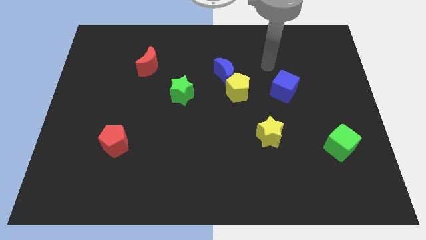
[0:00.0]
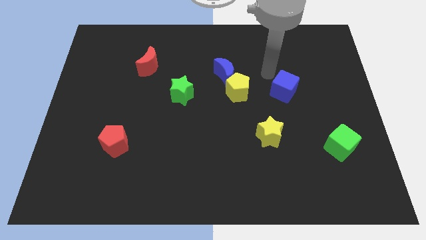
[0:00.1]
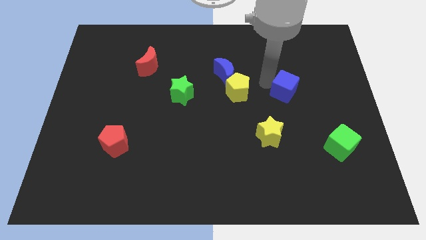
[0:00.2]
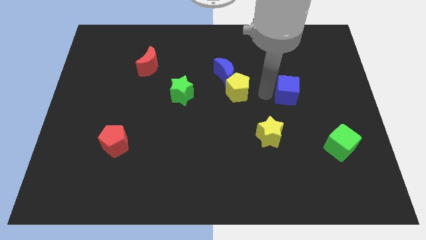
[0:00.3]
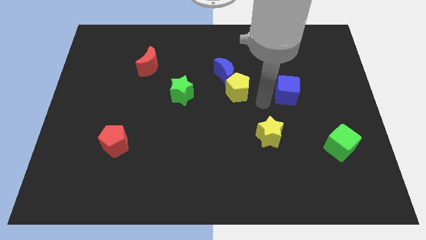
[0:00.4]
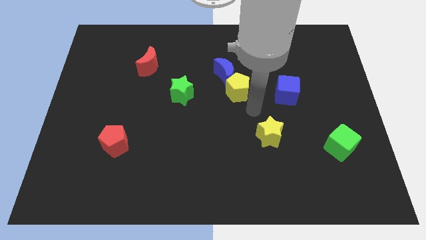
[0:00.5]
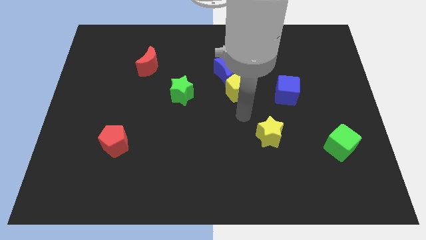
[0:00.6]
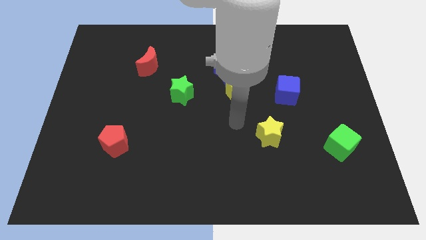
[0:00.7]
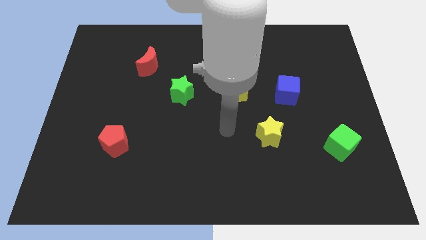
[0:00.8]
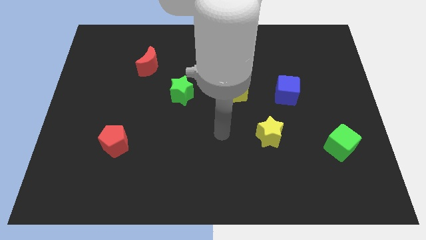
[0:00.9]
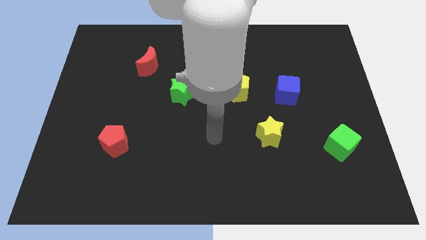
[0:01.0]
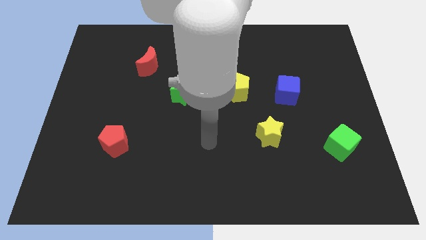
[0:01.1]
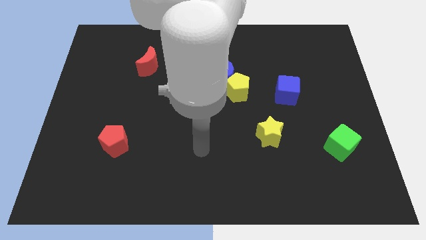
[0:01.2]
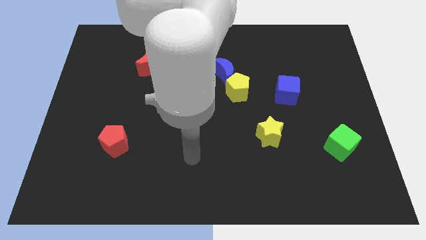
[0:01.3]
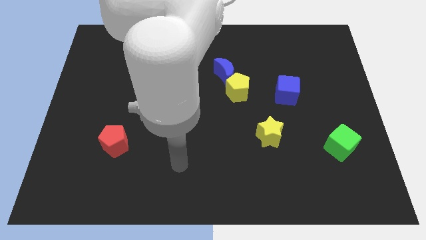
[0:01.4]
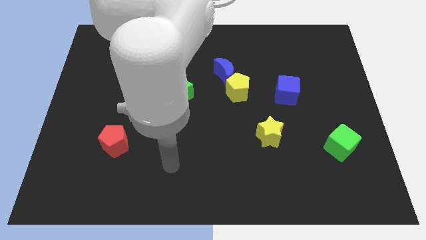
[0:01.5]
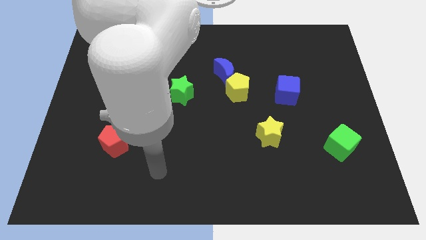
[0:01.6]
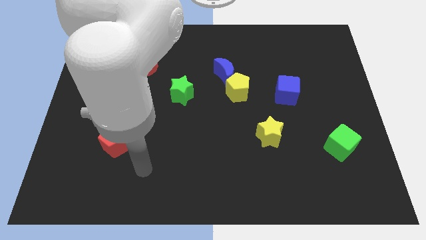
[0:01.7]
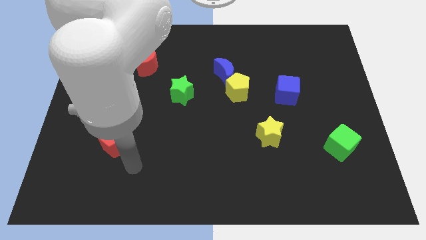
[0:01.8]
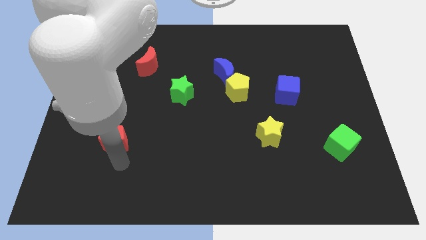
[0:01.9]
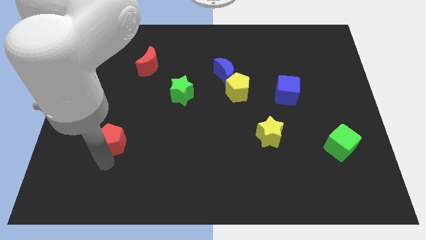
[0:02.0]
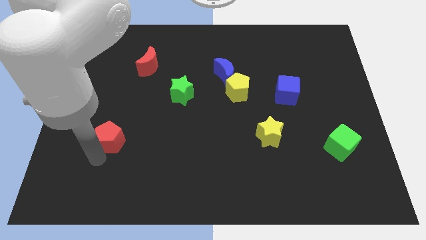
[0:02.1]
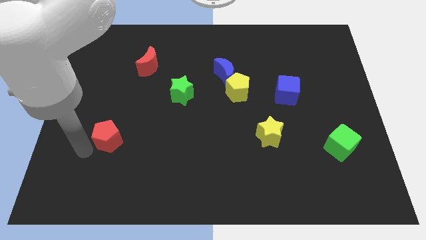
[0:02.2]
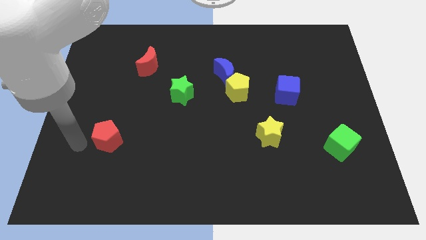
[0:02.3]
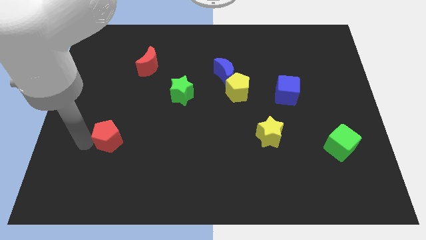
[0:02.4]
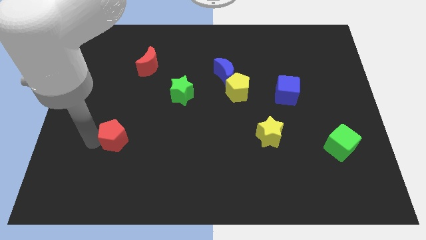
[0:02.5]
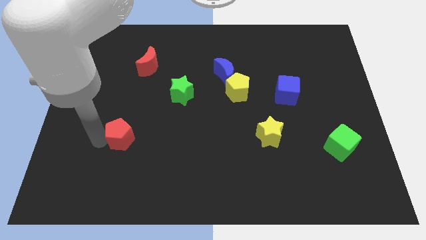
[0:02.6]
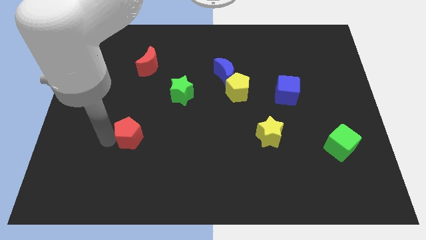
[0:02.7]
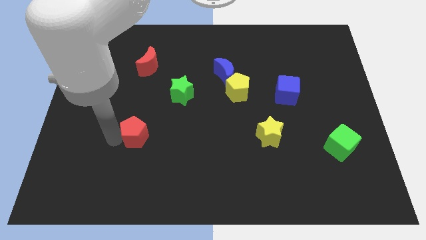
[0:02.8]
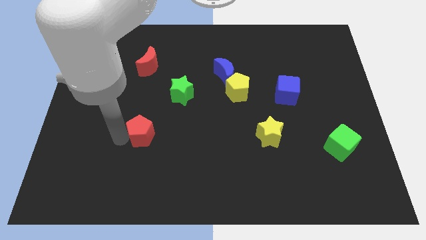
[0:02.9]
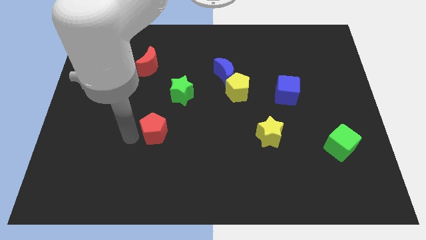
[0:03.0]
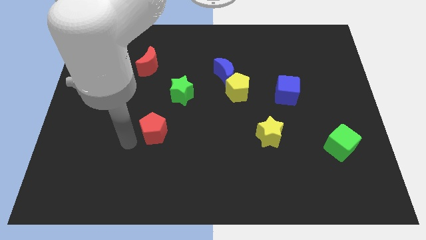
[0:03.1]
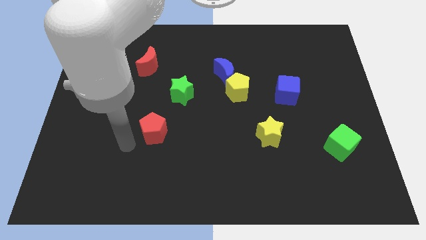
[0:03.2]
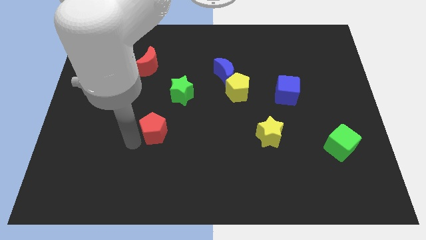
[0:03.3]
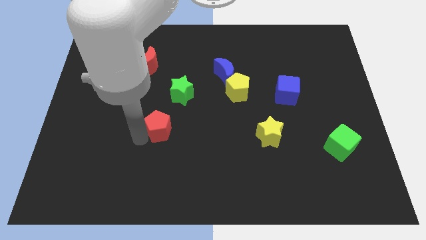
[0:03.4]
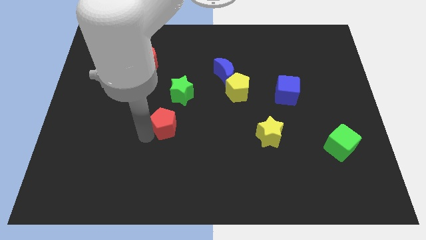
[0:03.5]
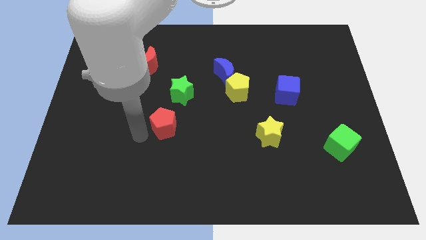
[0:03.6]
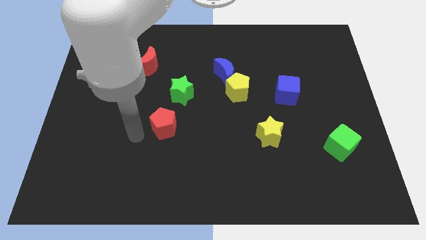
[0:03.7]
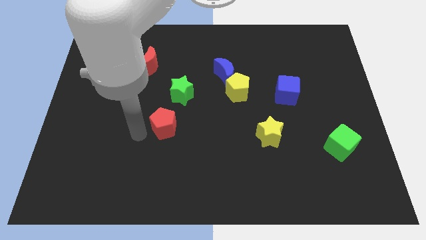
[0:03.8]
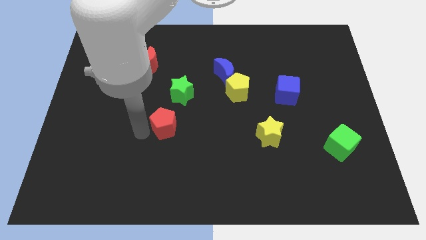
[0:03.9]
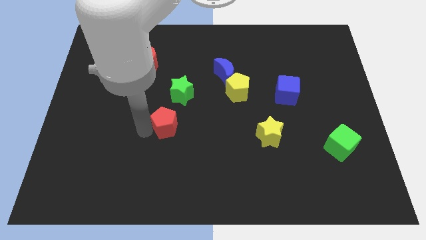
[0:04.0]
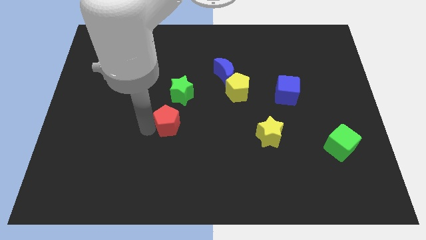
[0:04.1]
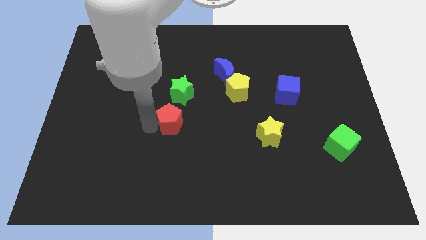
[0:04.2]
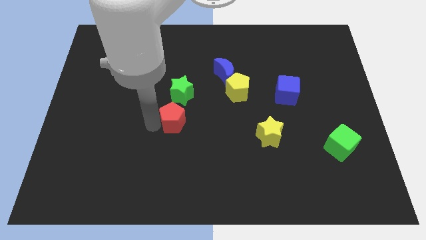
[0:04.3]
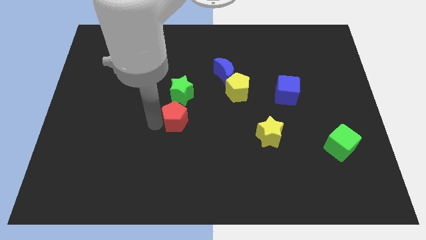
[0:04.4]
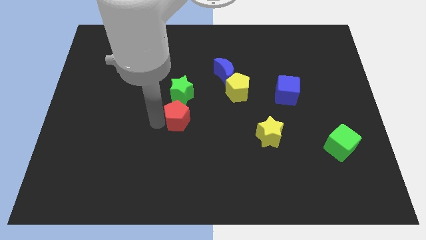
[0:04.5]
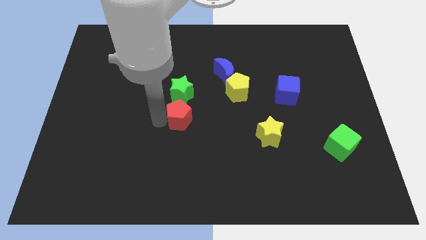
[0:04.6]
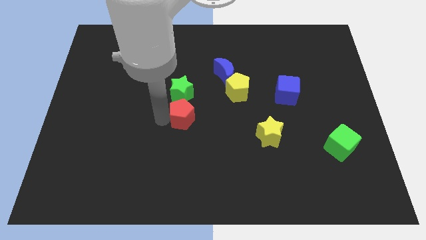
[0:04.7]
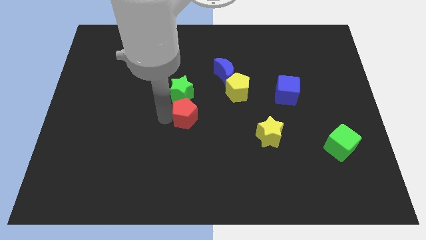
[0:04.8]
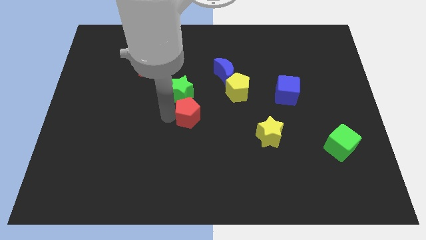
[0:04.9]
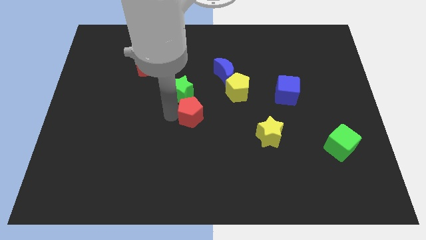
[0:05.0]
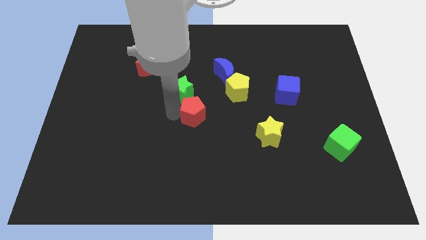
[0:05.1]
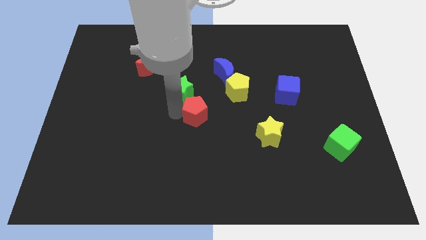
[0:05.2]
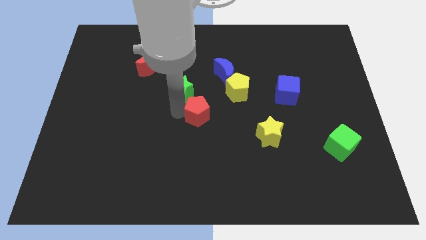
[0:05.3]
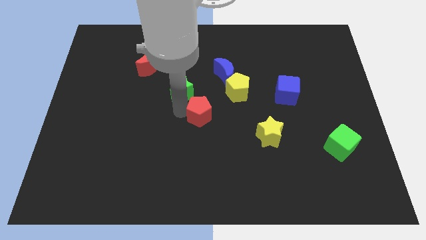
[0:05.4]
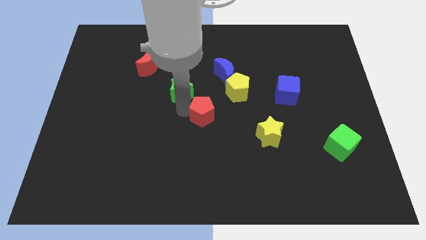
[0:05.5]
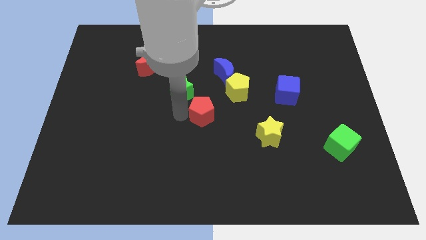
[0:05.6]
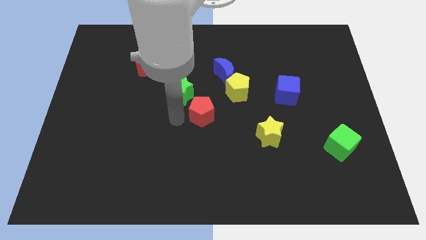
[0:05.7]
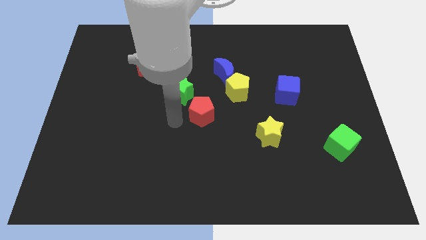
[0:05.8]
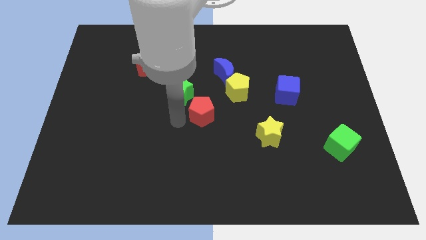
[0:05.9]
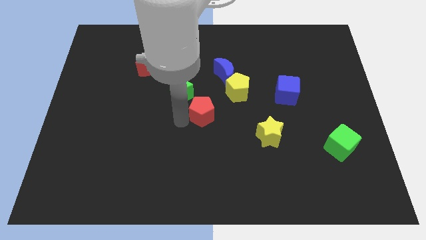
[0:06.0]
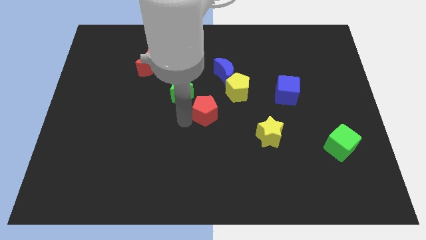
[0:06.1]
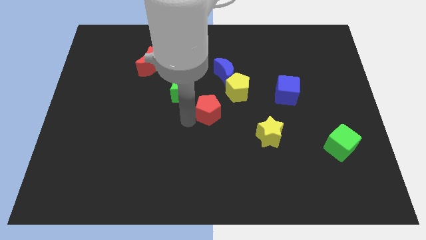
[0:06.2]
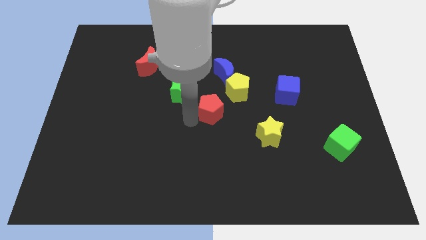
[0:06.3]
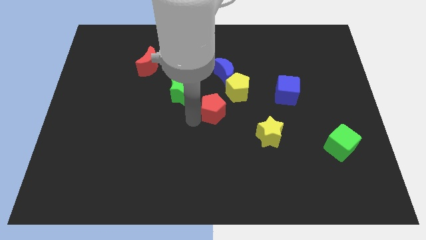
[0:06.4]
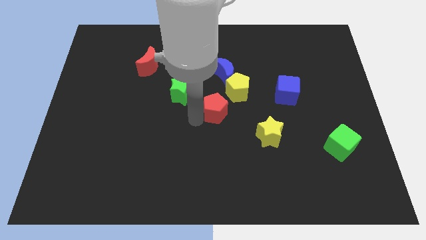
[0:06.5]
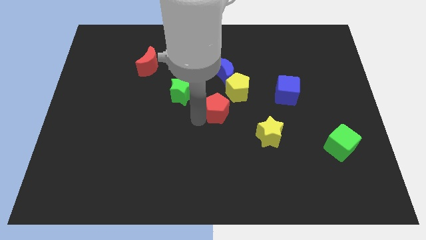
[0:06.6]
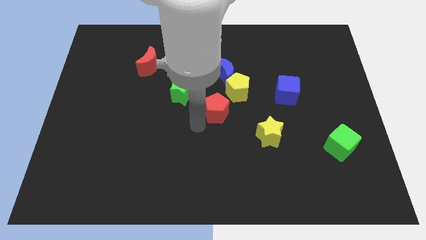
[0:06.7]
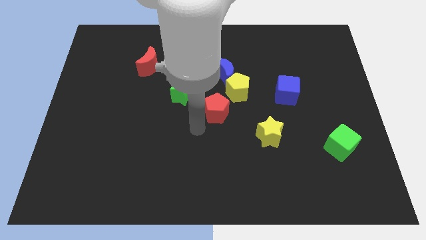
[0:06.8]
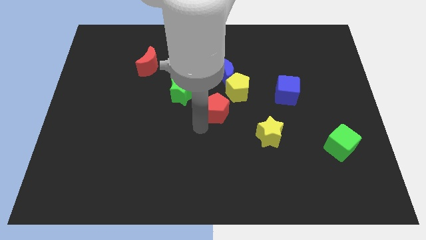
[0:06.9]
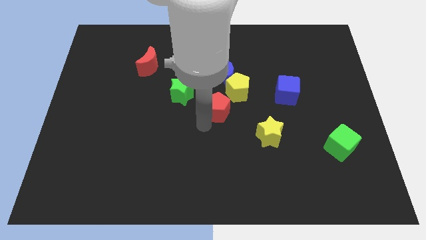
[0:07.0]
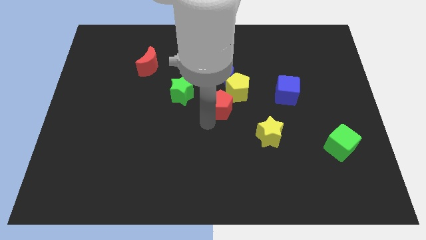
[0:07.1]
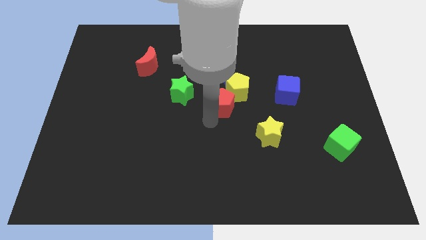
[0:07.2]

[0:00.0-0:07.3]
push the red pentagon next to the yellow pentagon
